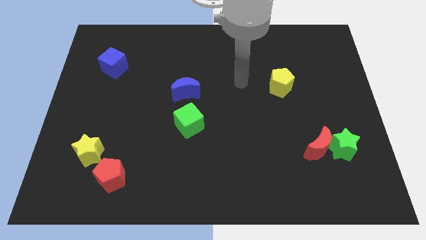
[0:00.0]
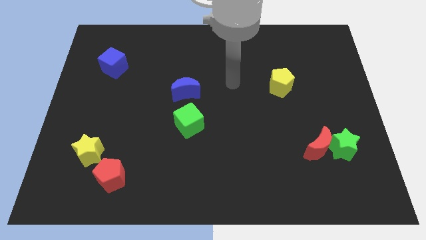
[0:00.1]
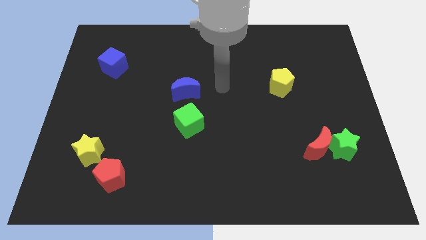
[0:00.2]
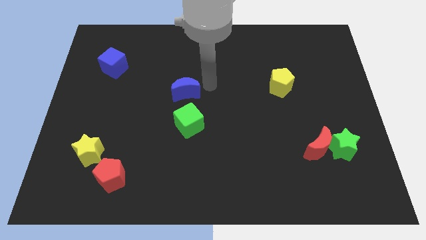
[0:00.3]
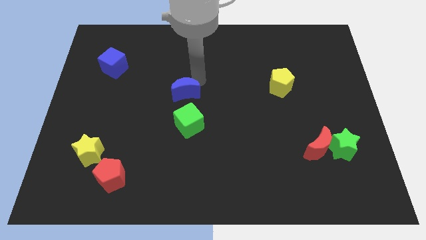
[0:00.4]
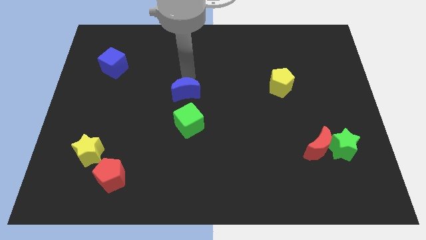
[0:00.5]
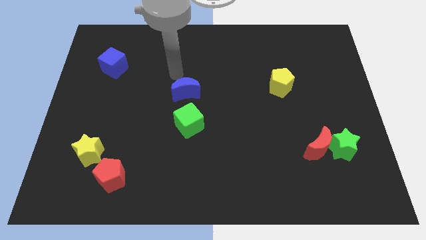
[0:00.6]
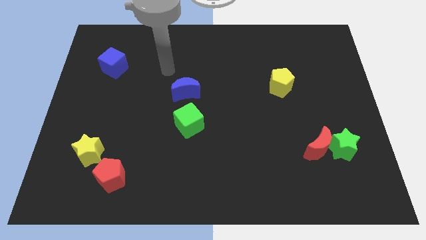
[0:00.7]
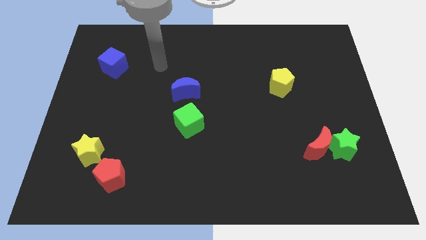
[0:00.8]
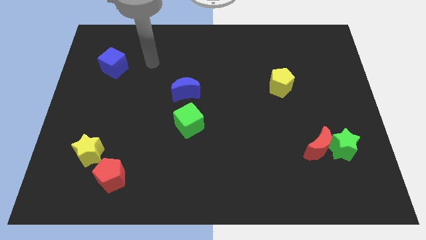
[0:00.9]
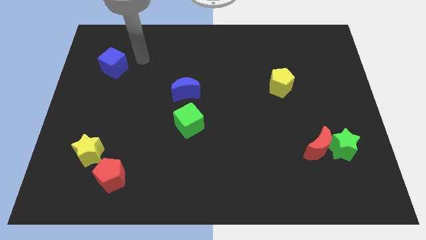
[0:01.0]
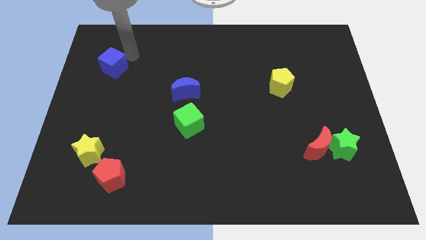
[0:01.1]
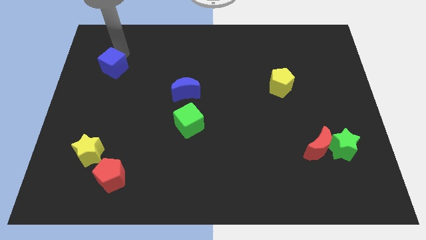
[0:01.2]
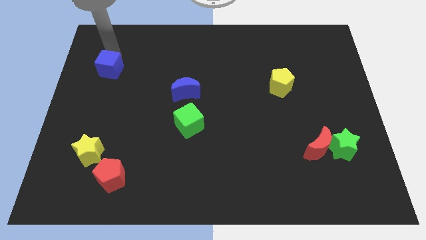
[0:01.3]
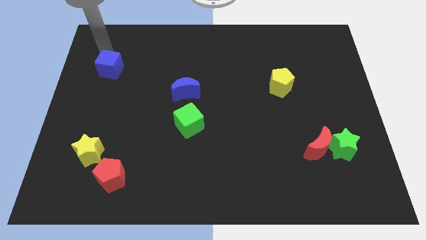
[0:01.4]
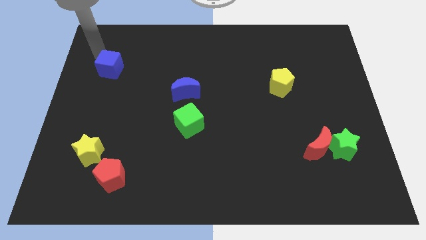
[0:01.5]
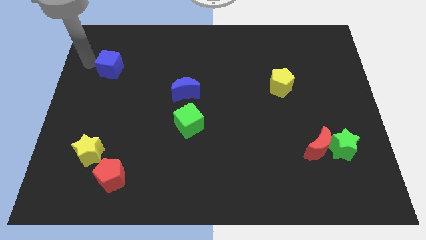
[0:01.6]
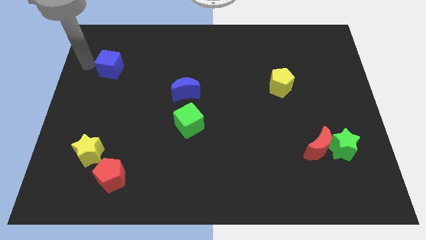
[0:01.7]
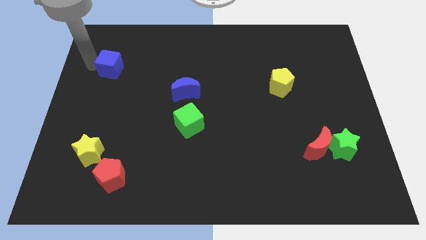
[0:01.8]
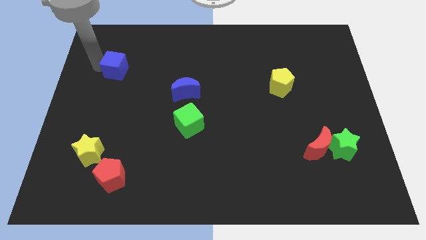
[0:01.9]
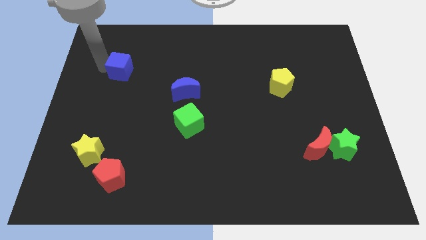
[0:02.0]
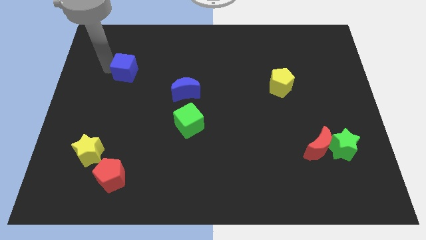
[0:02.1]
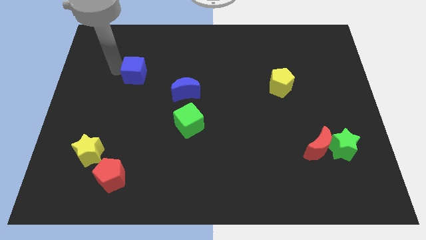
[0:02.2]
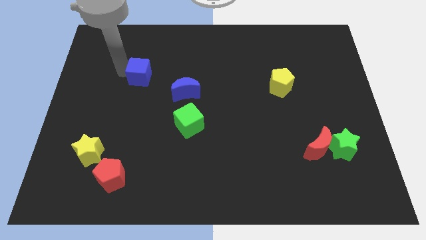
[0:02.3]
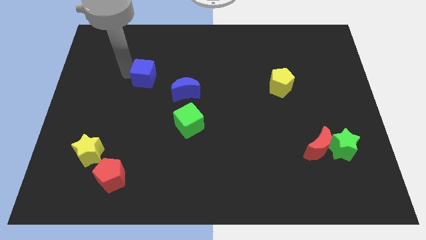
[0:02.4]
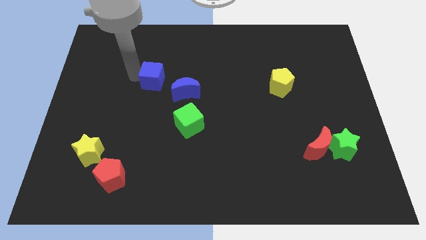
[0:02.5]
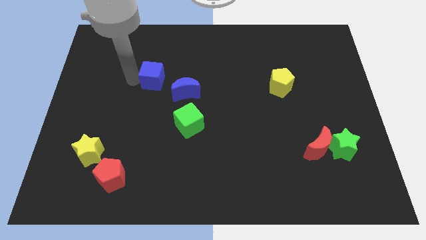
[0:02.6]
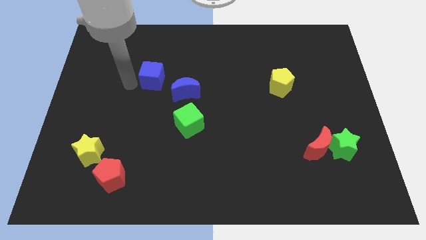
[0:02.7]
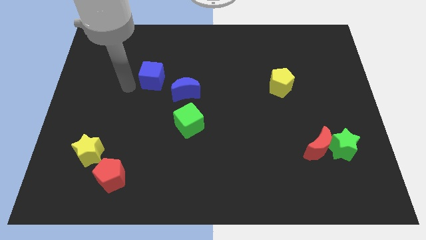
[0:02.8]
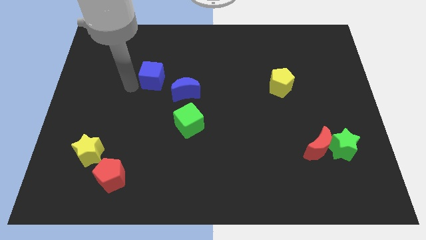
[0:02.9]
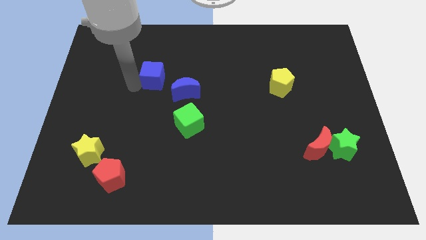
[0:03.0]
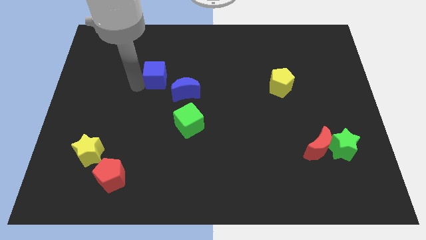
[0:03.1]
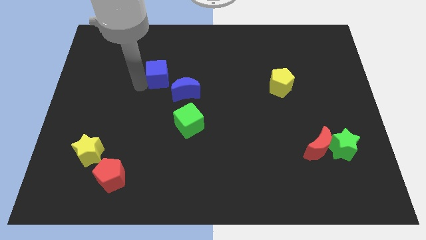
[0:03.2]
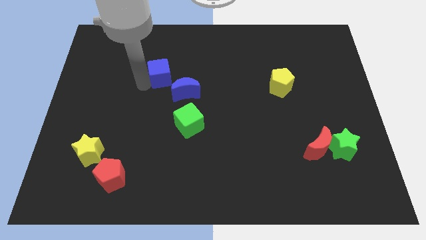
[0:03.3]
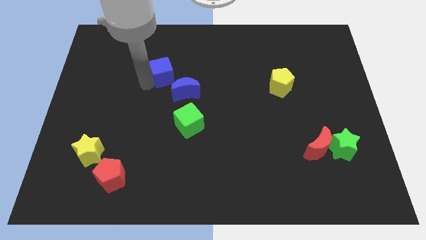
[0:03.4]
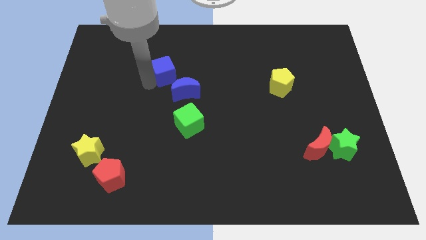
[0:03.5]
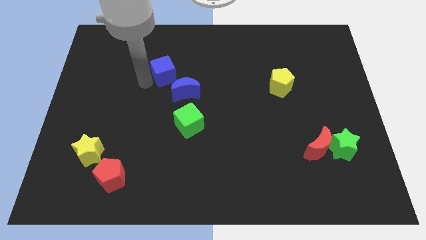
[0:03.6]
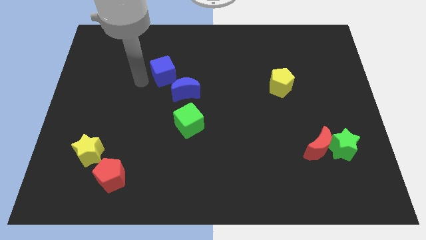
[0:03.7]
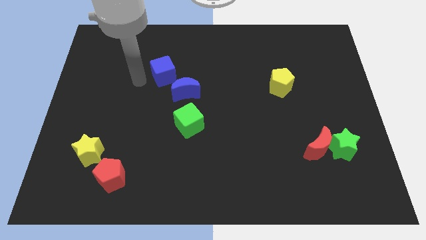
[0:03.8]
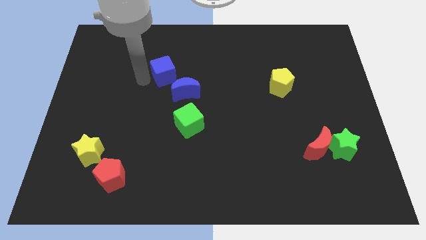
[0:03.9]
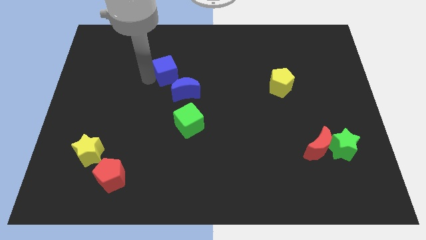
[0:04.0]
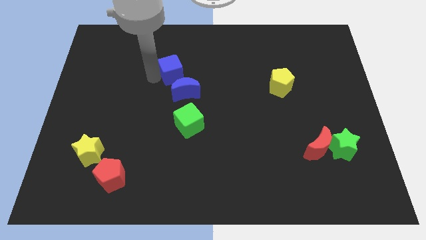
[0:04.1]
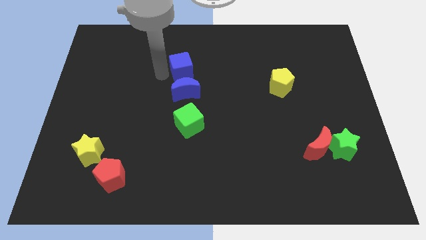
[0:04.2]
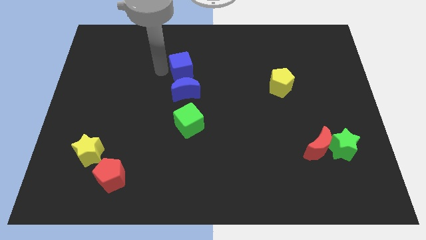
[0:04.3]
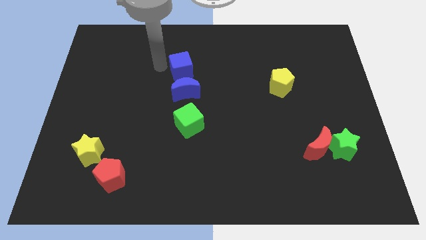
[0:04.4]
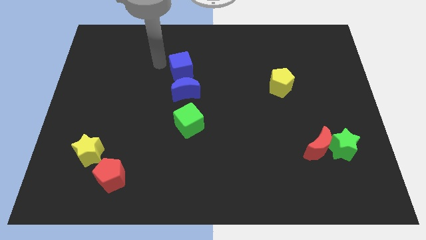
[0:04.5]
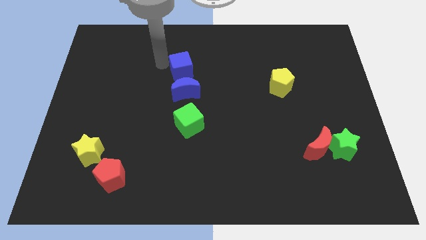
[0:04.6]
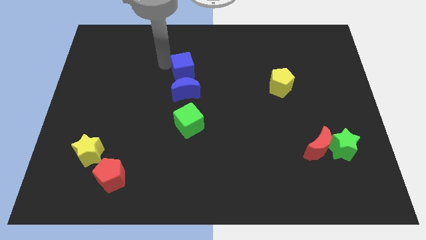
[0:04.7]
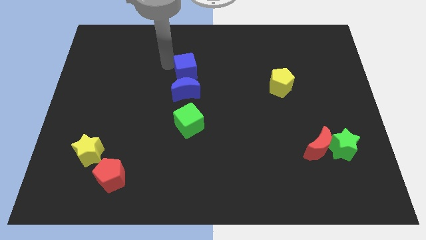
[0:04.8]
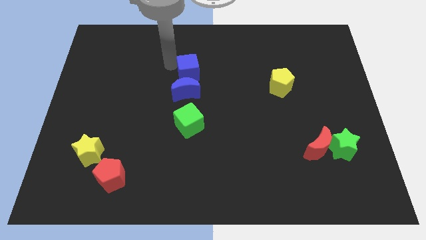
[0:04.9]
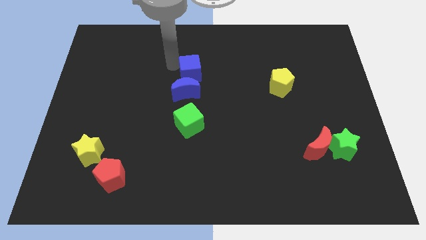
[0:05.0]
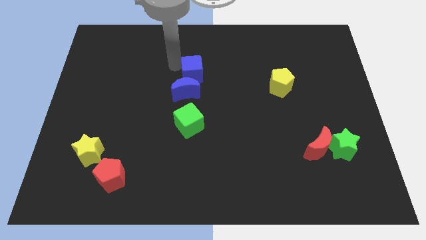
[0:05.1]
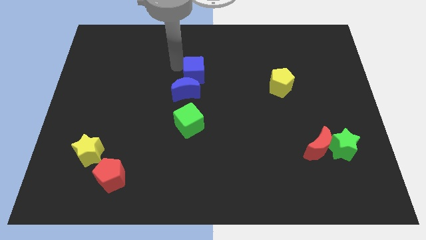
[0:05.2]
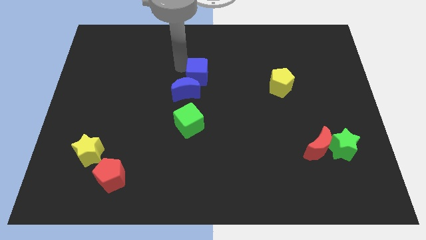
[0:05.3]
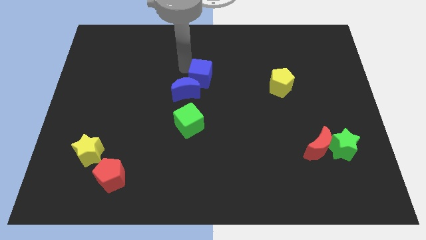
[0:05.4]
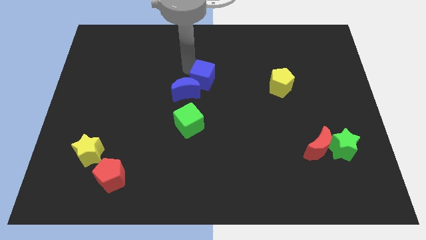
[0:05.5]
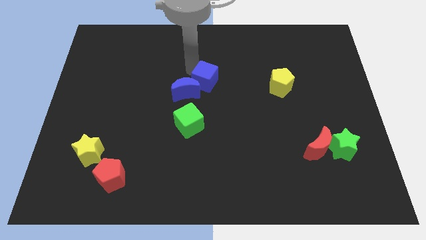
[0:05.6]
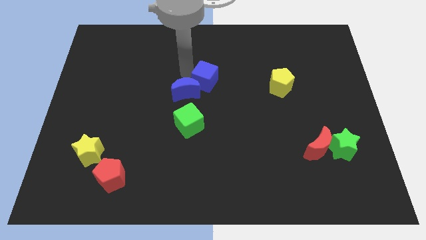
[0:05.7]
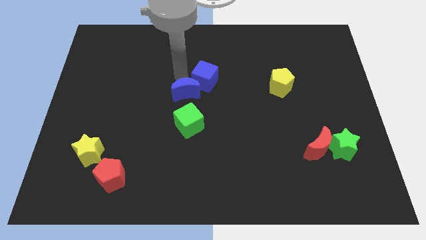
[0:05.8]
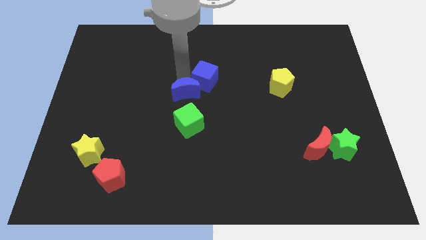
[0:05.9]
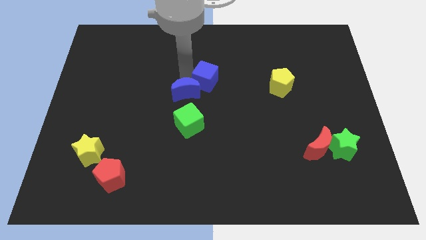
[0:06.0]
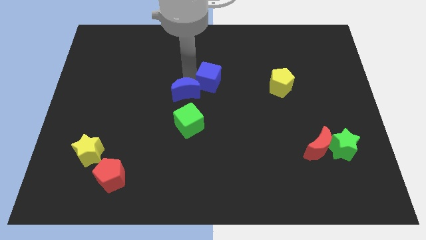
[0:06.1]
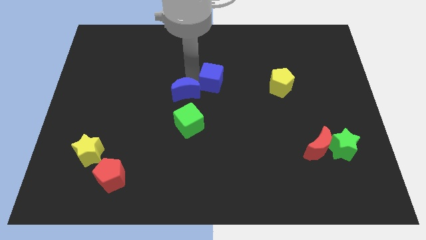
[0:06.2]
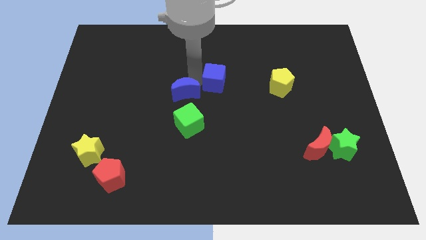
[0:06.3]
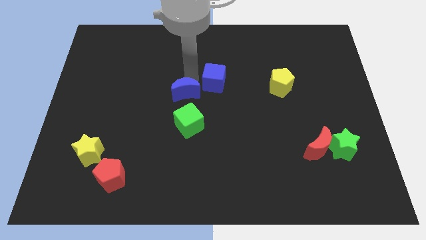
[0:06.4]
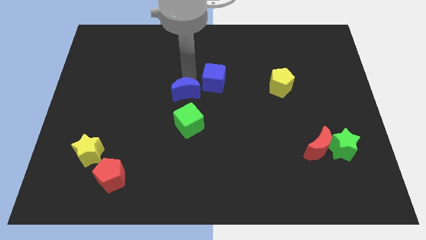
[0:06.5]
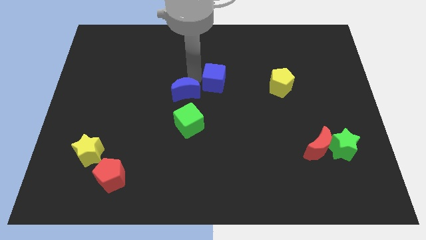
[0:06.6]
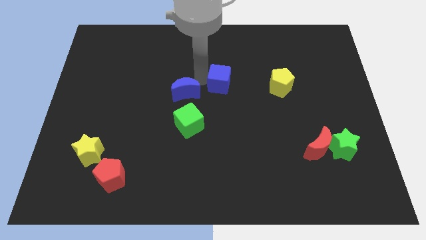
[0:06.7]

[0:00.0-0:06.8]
push the blue cube to the left of the yellow pentagon

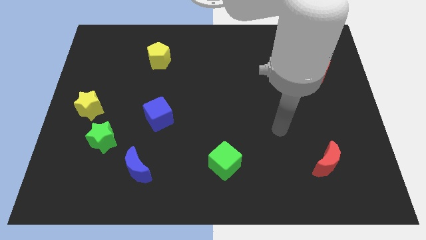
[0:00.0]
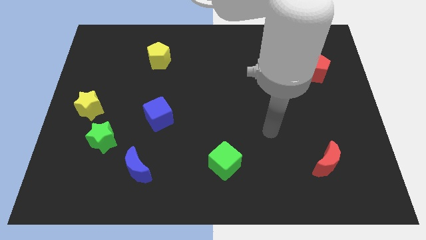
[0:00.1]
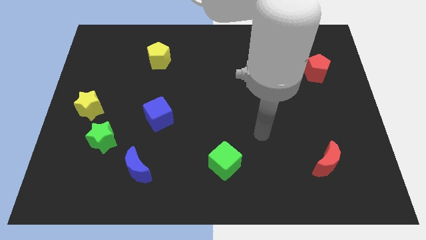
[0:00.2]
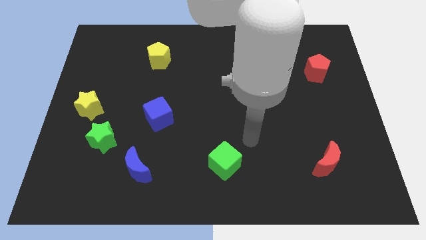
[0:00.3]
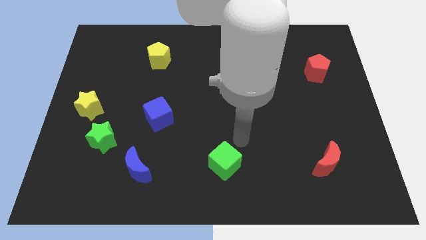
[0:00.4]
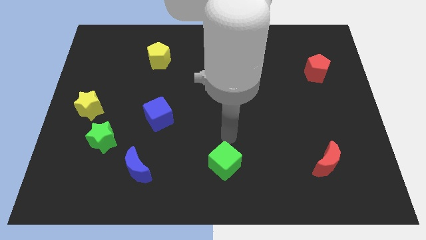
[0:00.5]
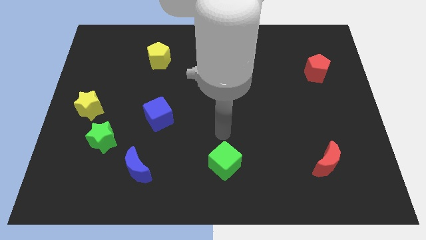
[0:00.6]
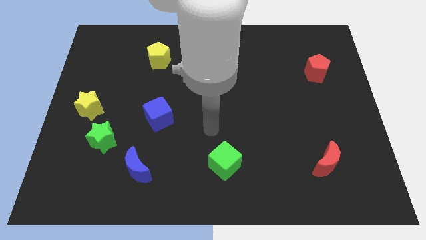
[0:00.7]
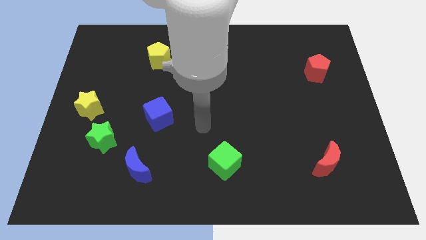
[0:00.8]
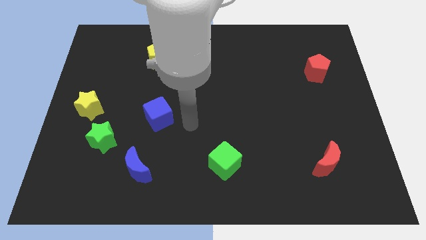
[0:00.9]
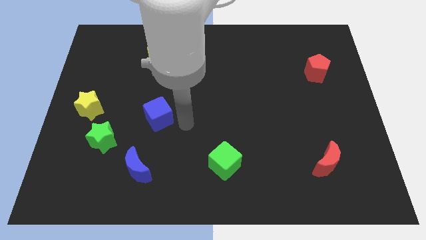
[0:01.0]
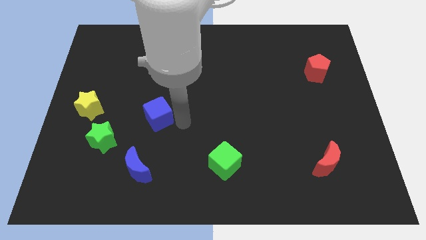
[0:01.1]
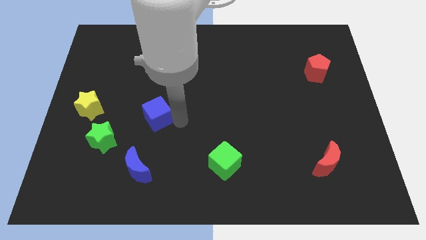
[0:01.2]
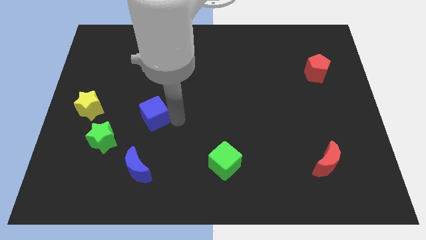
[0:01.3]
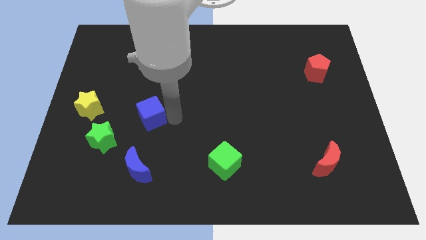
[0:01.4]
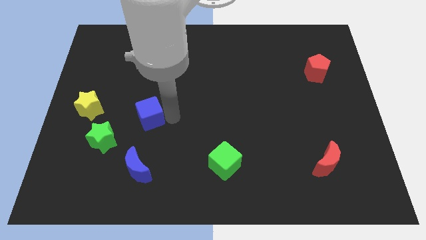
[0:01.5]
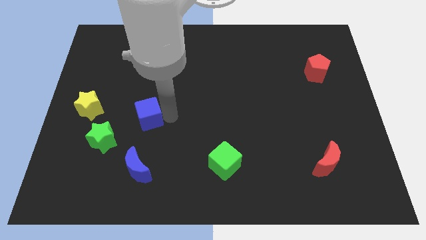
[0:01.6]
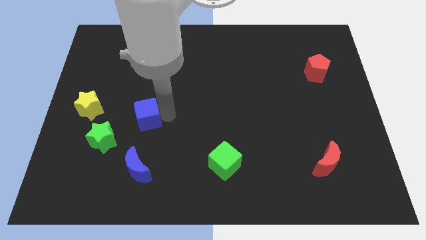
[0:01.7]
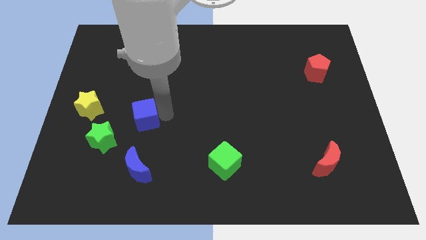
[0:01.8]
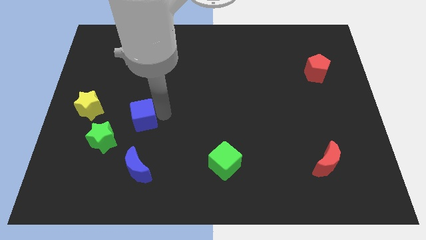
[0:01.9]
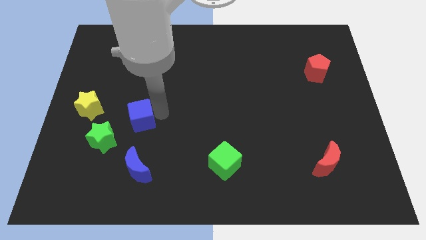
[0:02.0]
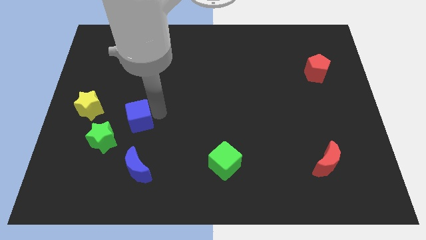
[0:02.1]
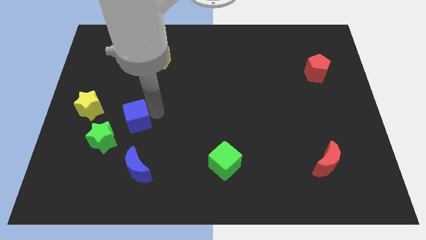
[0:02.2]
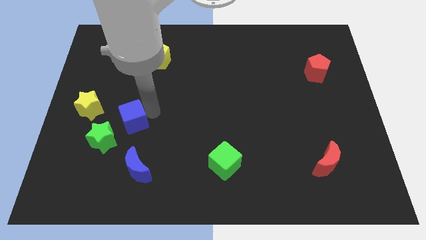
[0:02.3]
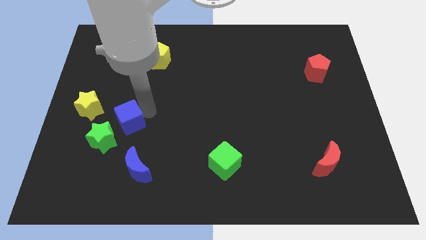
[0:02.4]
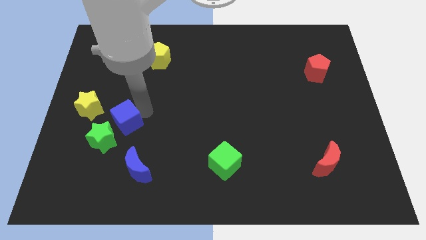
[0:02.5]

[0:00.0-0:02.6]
put the blue cube to the top side of the green star
